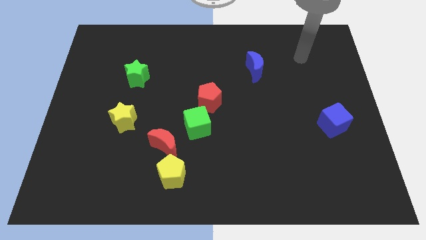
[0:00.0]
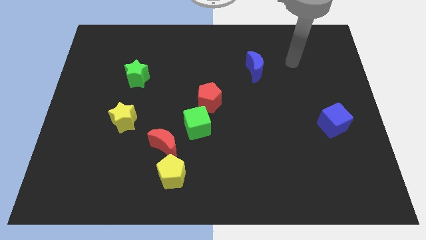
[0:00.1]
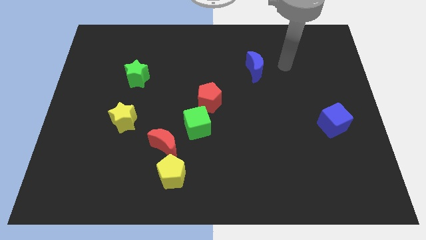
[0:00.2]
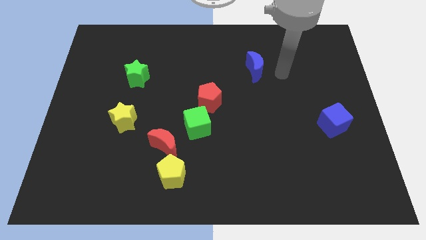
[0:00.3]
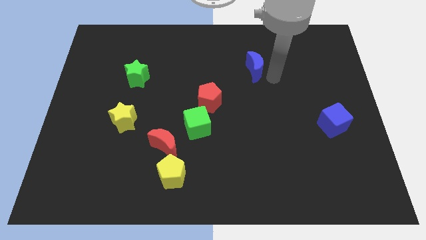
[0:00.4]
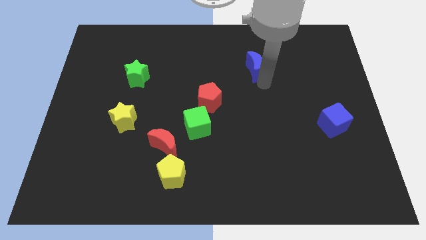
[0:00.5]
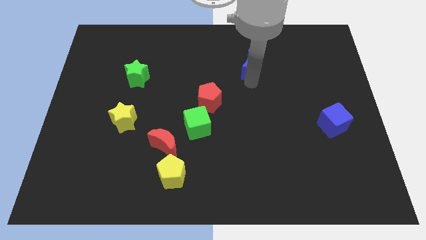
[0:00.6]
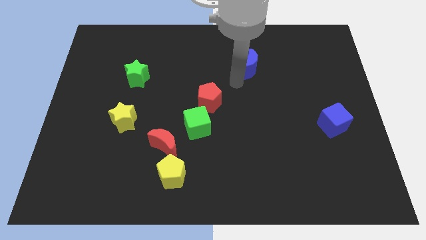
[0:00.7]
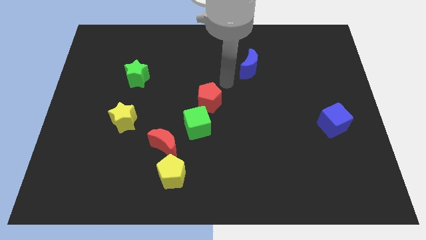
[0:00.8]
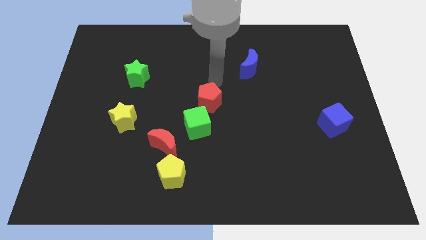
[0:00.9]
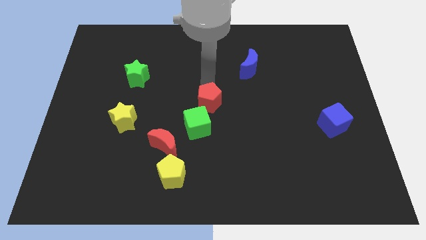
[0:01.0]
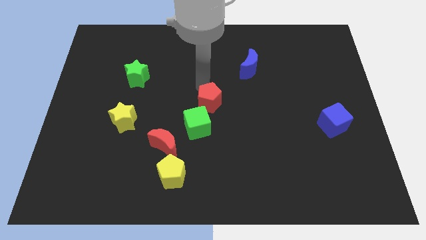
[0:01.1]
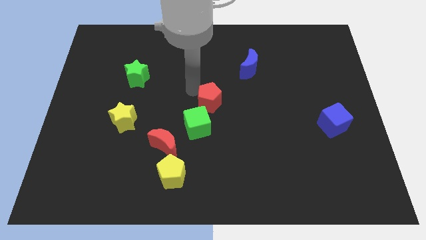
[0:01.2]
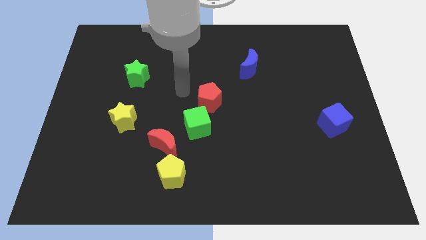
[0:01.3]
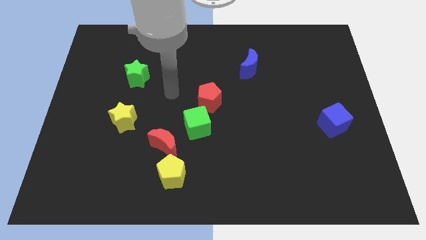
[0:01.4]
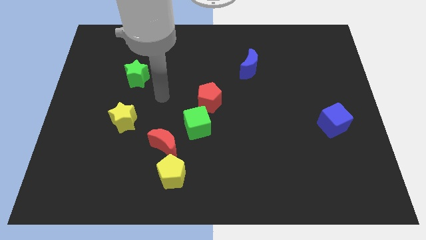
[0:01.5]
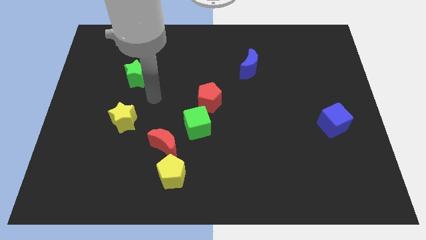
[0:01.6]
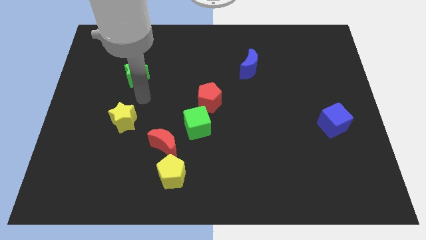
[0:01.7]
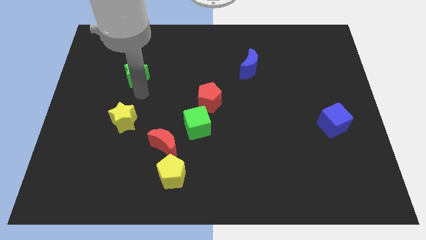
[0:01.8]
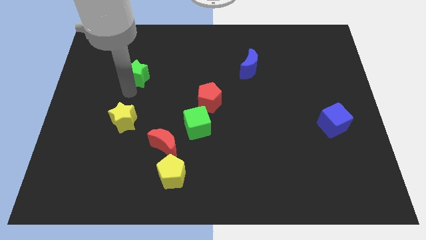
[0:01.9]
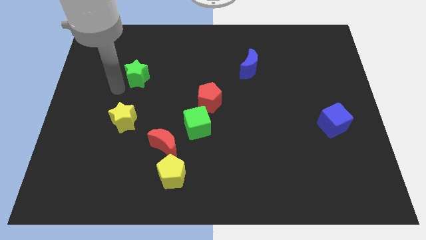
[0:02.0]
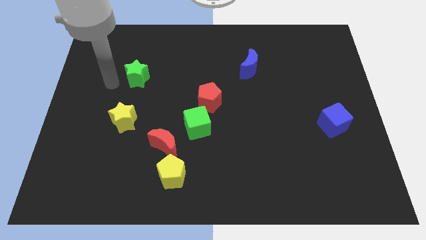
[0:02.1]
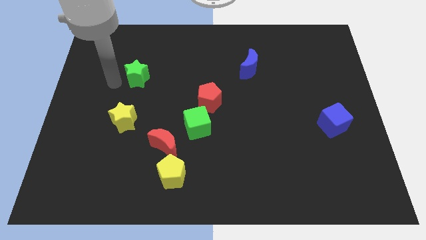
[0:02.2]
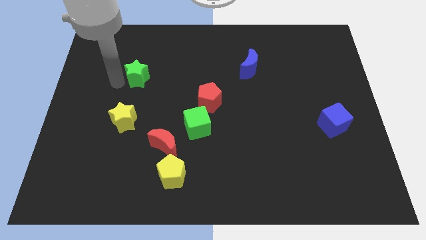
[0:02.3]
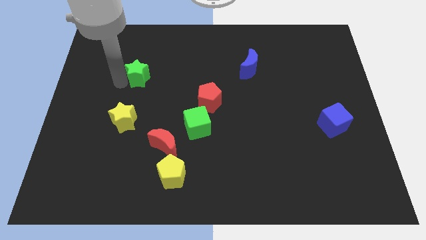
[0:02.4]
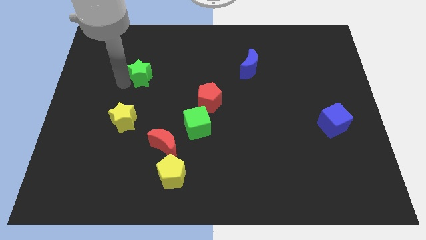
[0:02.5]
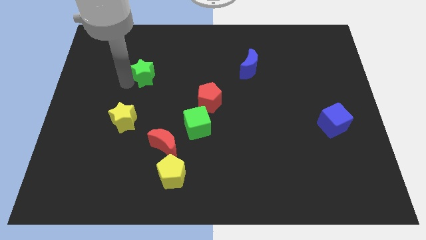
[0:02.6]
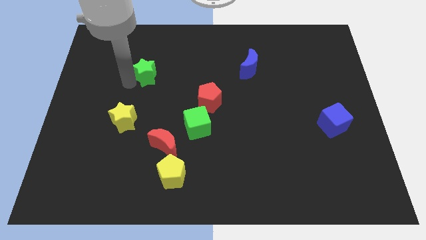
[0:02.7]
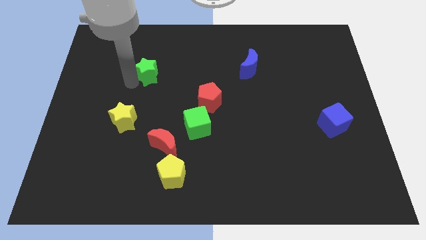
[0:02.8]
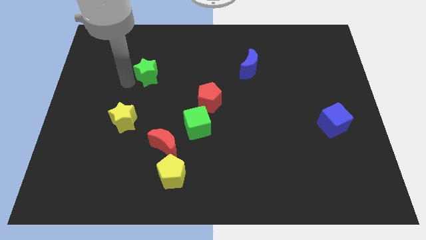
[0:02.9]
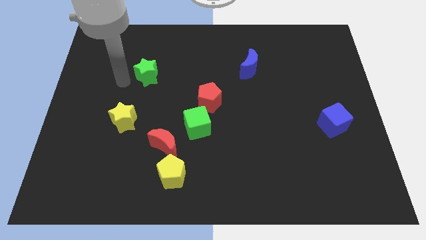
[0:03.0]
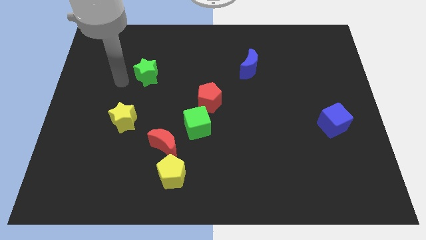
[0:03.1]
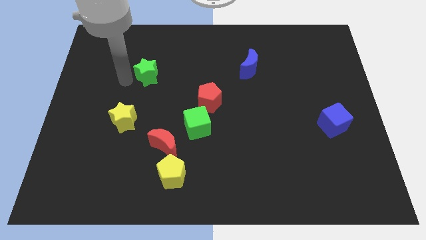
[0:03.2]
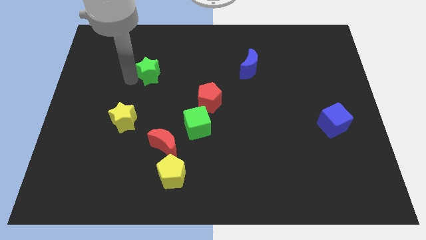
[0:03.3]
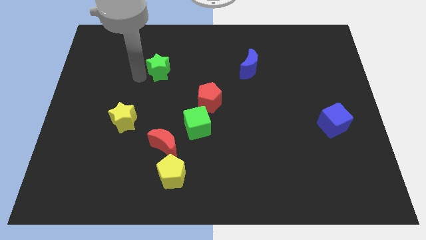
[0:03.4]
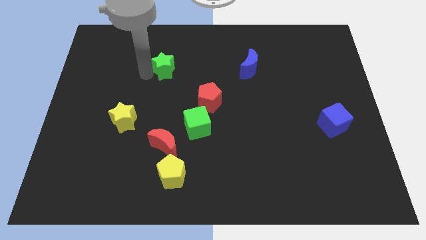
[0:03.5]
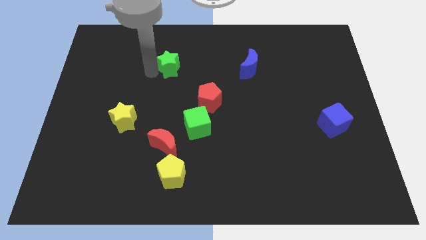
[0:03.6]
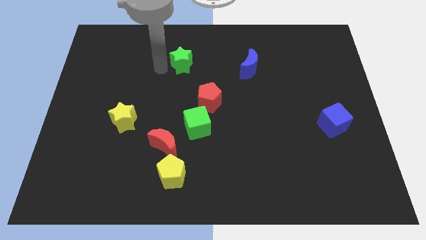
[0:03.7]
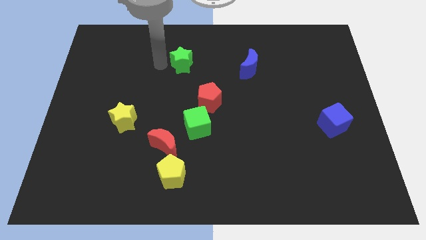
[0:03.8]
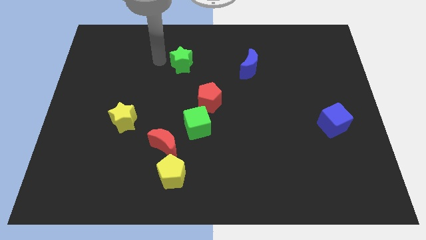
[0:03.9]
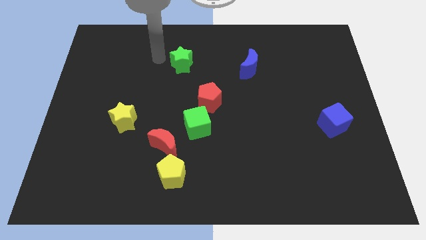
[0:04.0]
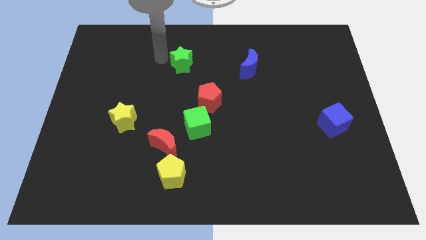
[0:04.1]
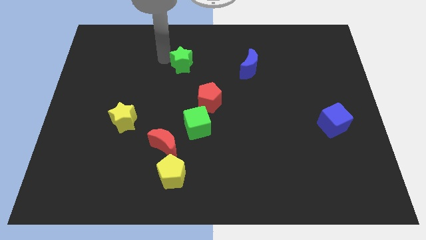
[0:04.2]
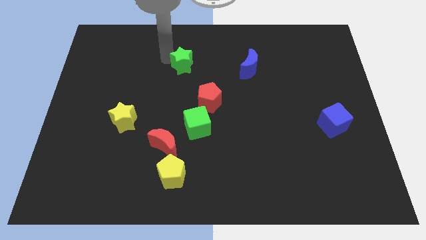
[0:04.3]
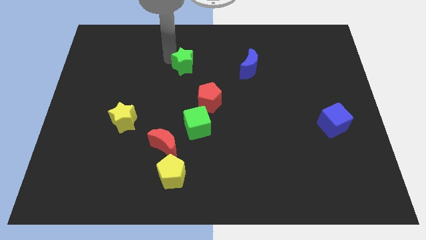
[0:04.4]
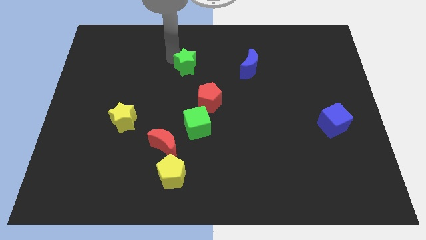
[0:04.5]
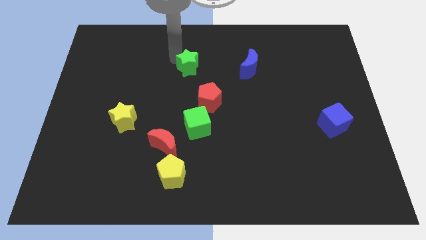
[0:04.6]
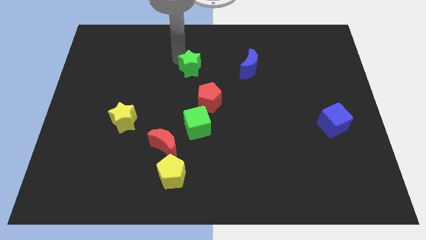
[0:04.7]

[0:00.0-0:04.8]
put the green star to the top side of the red pentagon

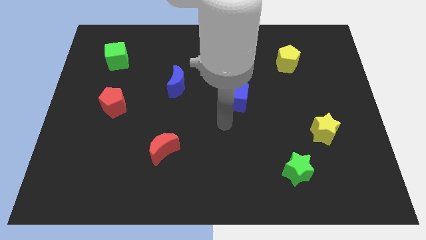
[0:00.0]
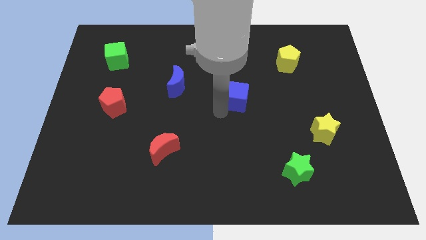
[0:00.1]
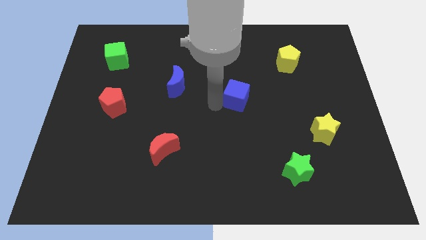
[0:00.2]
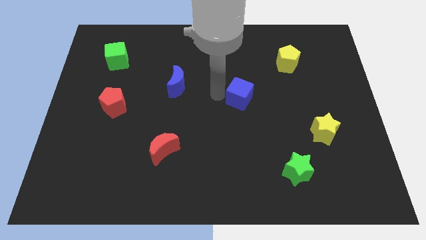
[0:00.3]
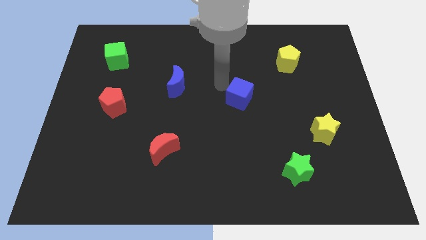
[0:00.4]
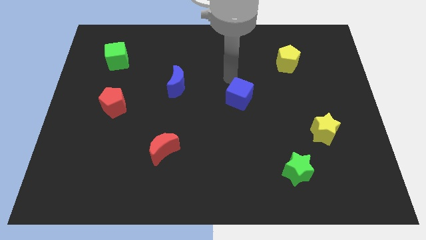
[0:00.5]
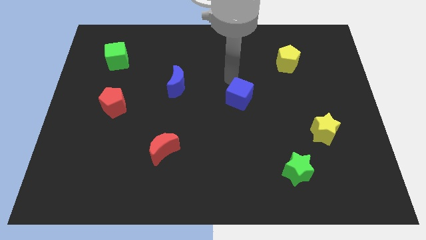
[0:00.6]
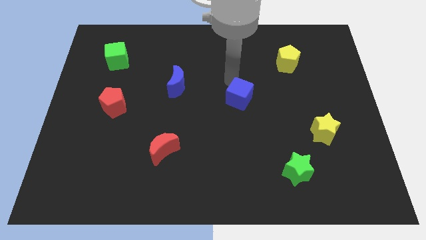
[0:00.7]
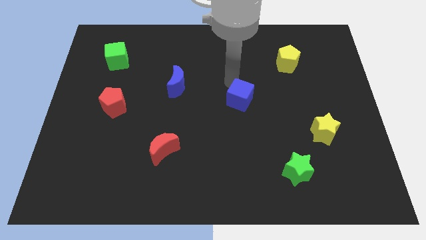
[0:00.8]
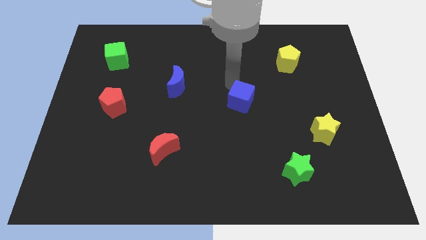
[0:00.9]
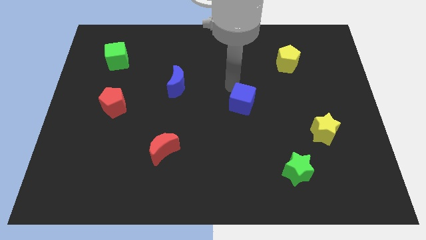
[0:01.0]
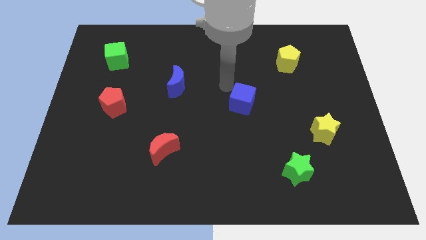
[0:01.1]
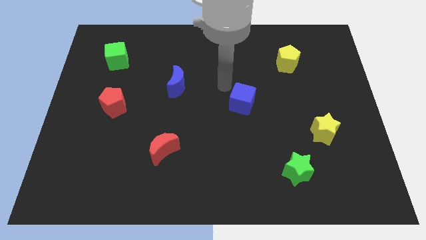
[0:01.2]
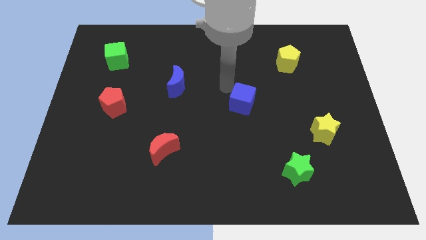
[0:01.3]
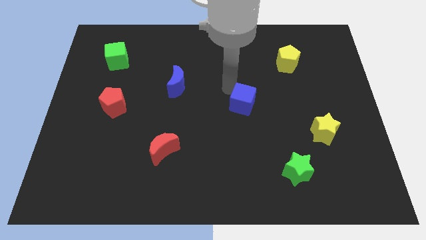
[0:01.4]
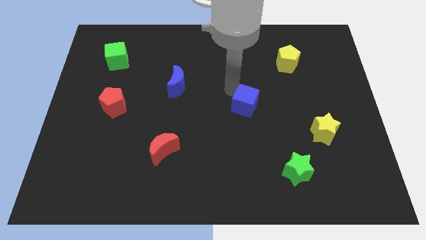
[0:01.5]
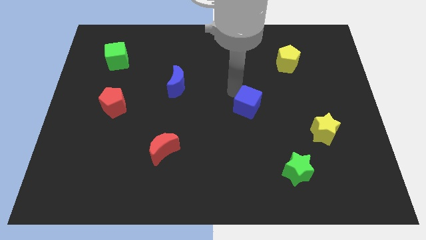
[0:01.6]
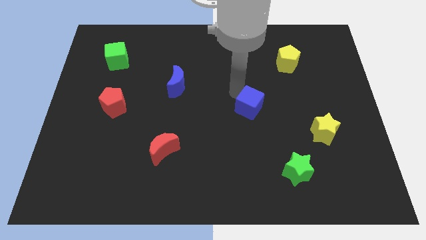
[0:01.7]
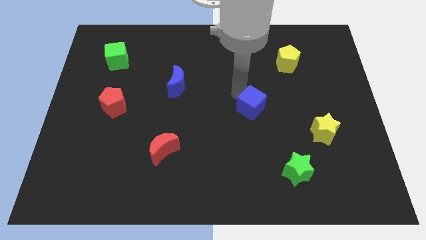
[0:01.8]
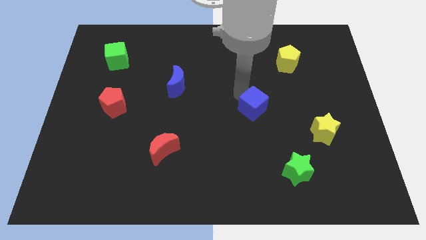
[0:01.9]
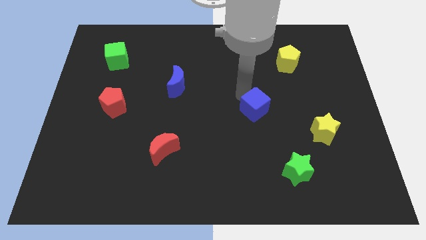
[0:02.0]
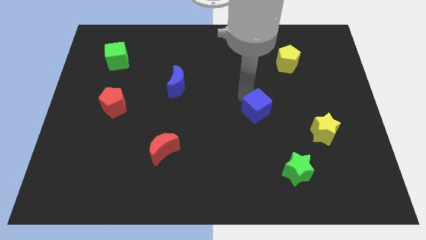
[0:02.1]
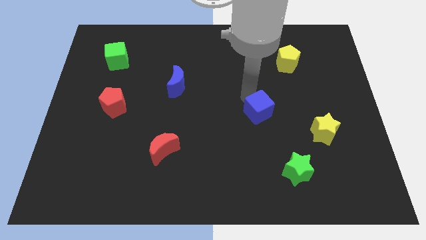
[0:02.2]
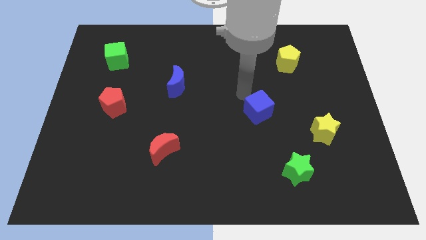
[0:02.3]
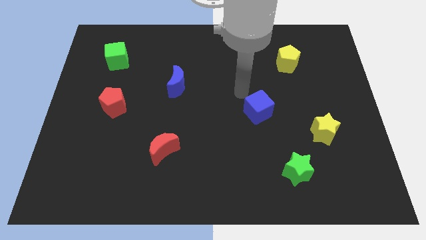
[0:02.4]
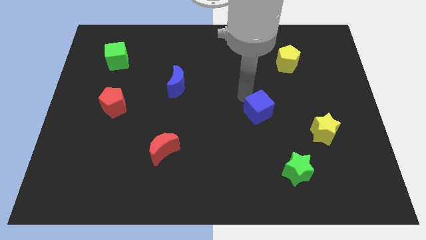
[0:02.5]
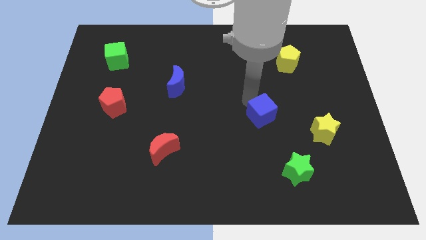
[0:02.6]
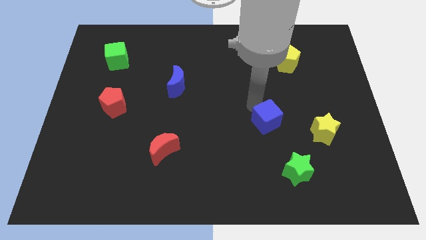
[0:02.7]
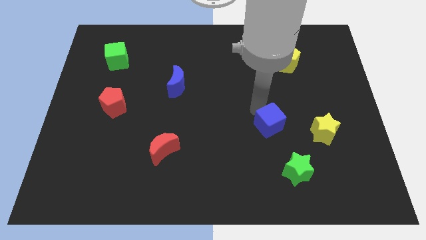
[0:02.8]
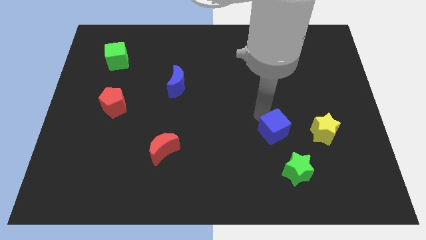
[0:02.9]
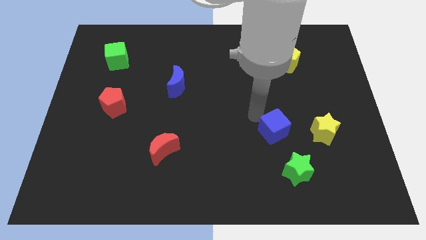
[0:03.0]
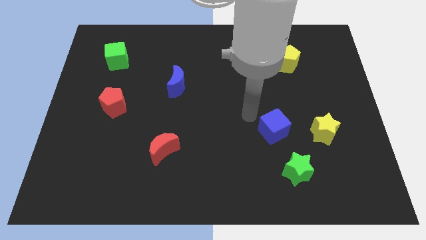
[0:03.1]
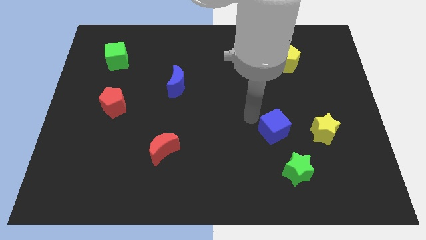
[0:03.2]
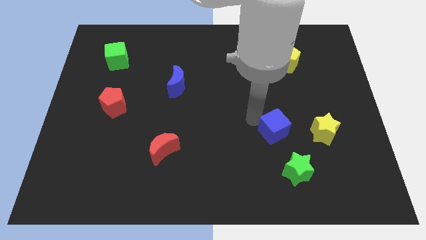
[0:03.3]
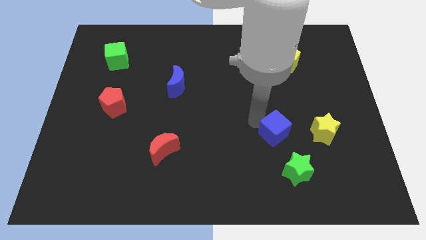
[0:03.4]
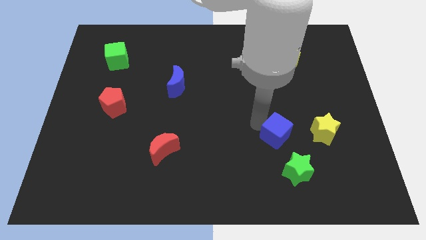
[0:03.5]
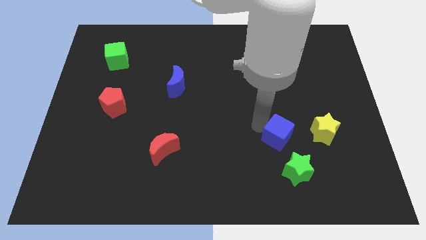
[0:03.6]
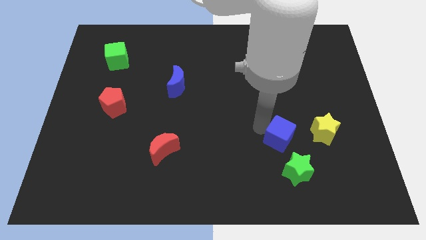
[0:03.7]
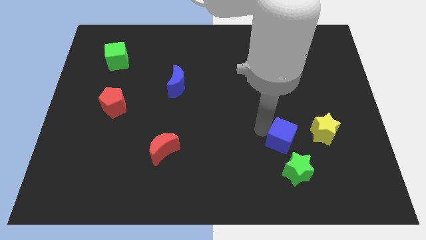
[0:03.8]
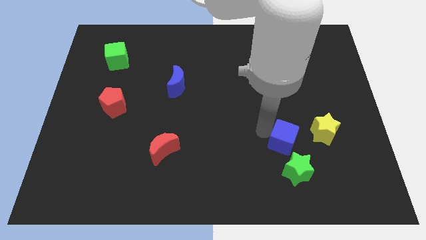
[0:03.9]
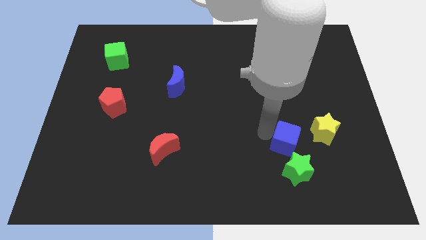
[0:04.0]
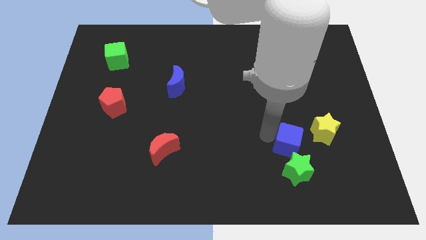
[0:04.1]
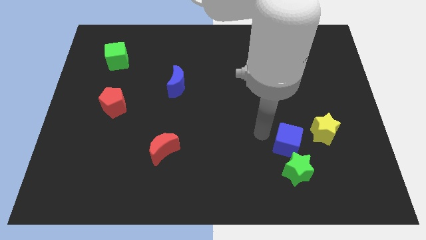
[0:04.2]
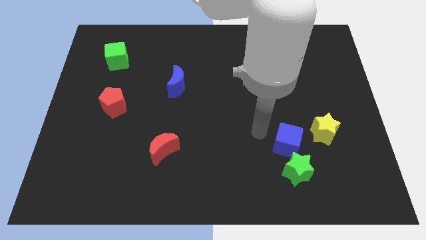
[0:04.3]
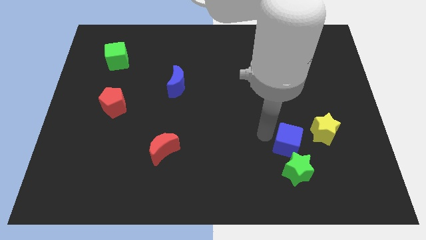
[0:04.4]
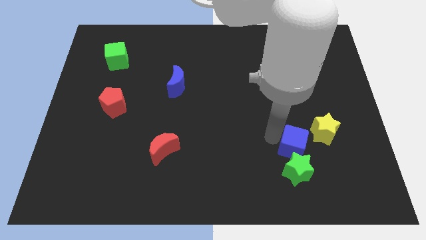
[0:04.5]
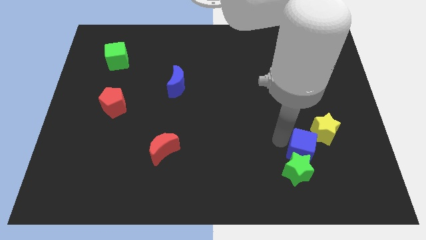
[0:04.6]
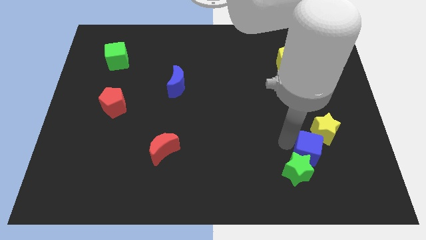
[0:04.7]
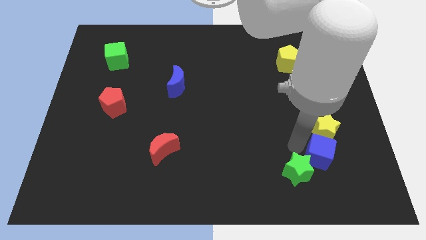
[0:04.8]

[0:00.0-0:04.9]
slide the blue cube just right of the green star
